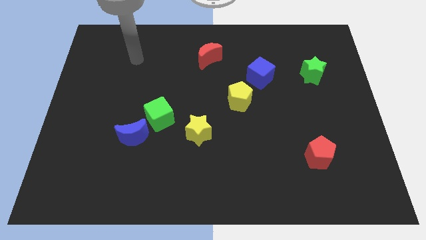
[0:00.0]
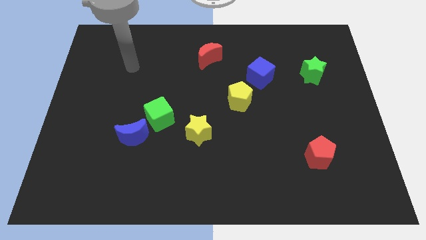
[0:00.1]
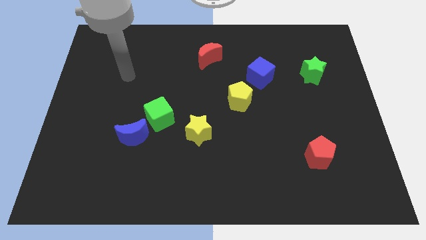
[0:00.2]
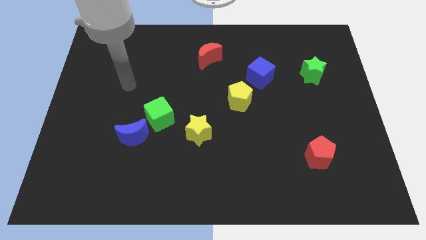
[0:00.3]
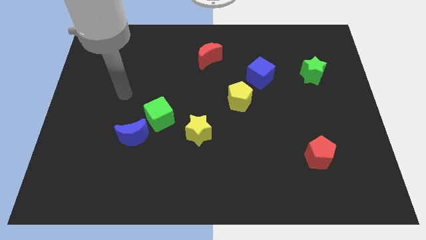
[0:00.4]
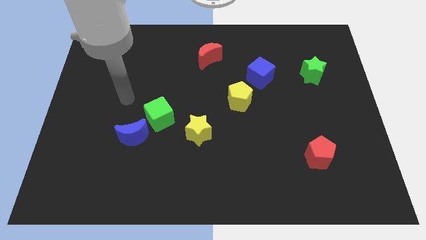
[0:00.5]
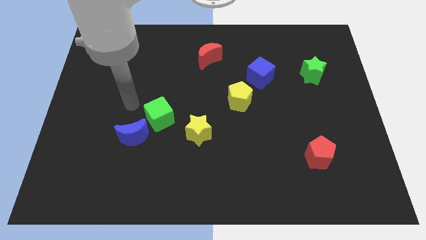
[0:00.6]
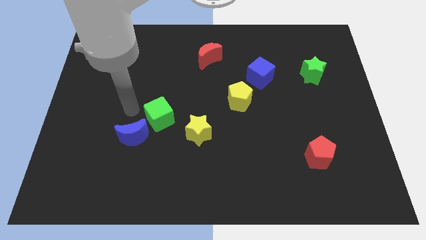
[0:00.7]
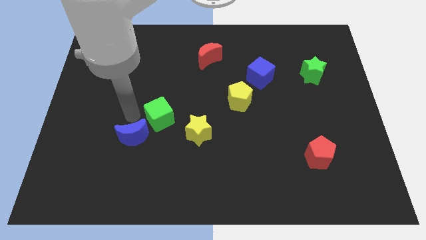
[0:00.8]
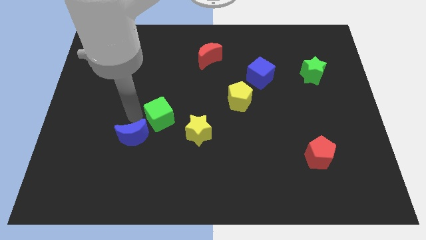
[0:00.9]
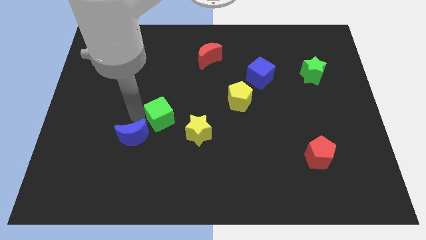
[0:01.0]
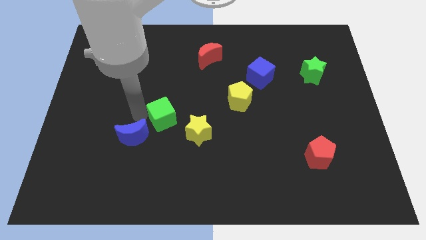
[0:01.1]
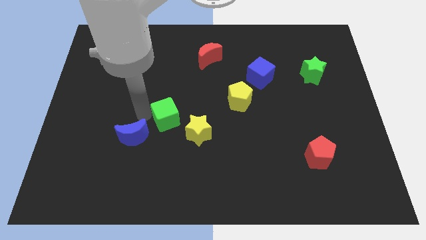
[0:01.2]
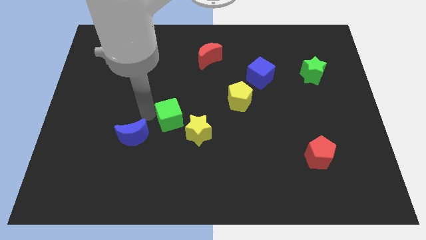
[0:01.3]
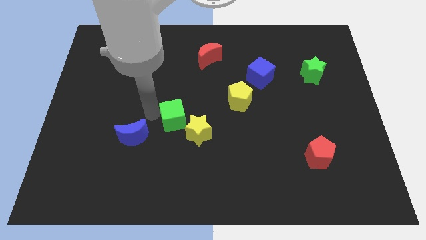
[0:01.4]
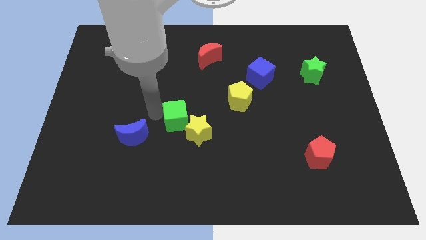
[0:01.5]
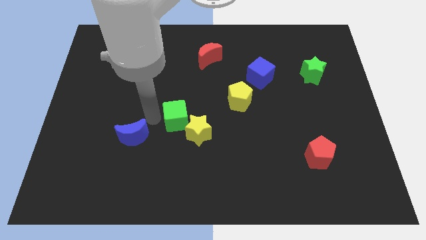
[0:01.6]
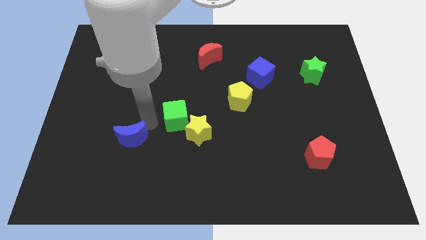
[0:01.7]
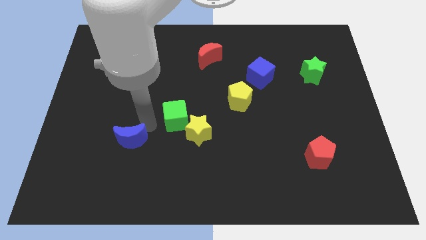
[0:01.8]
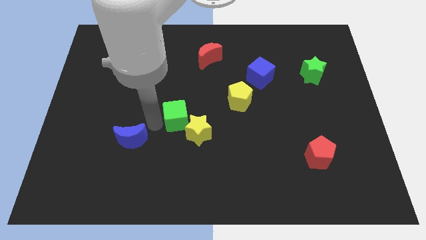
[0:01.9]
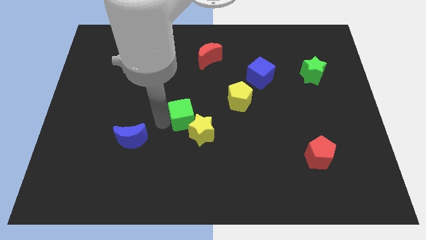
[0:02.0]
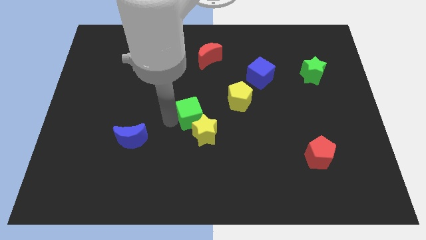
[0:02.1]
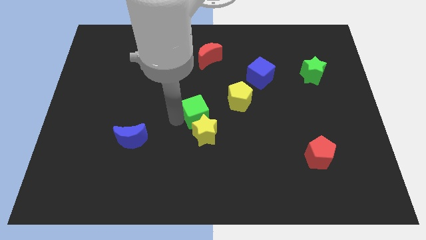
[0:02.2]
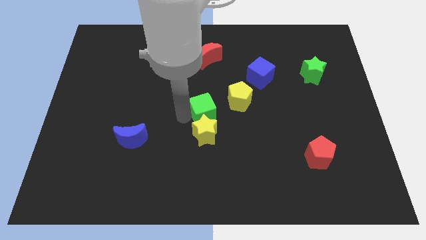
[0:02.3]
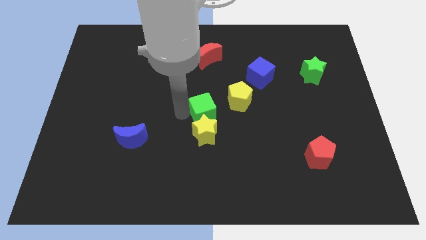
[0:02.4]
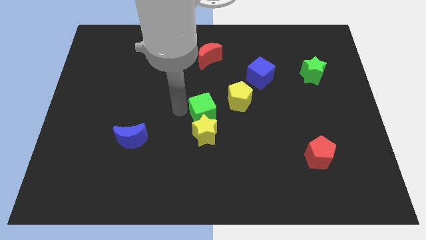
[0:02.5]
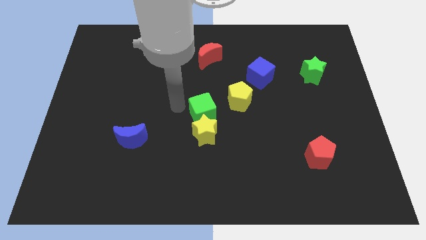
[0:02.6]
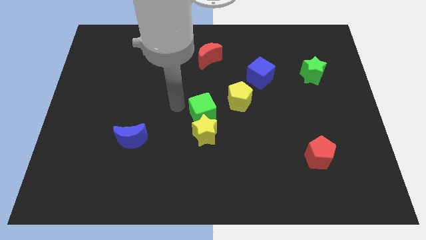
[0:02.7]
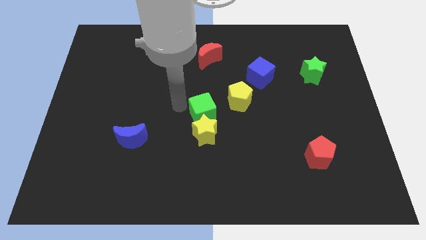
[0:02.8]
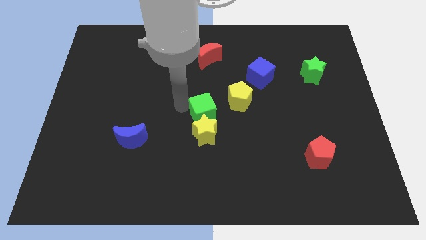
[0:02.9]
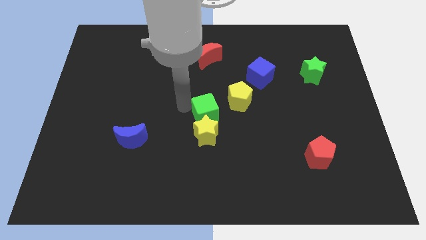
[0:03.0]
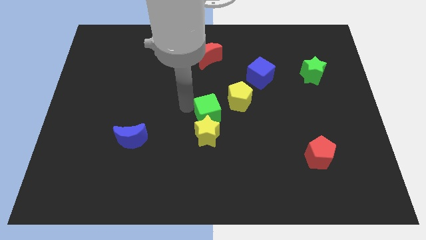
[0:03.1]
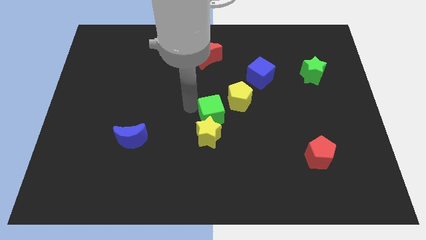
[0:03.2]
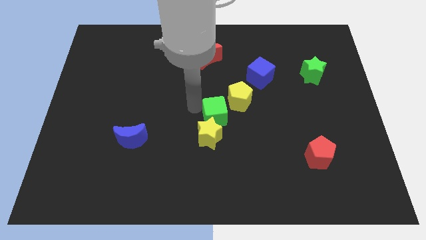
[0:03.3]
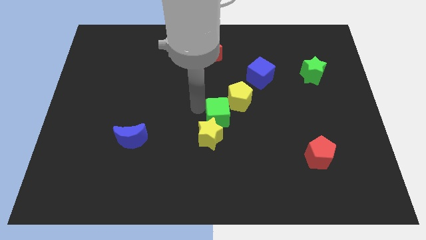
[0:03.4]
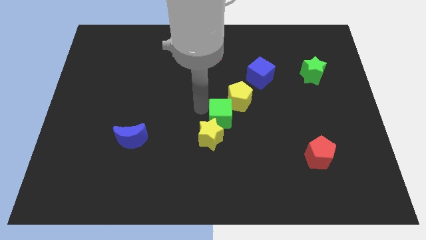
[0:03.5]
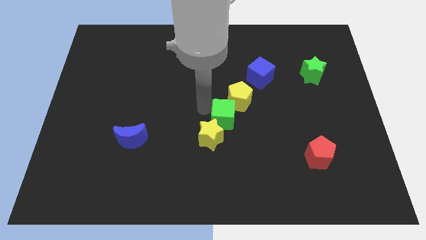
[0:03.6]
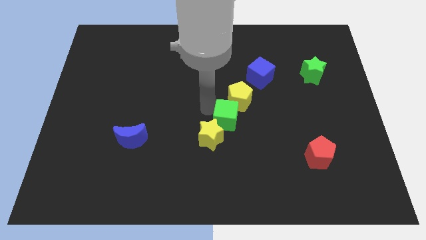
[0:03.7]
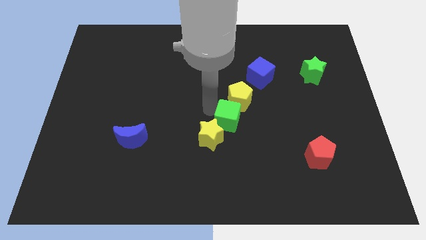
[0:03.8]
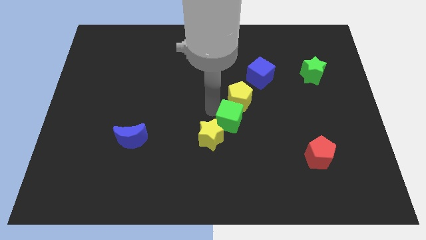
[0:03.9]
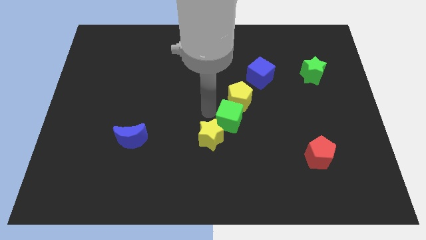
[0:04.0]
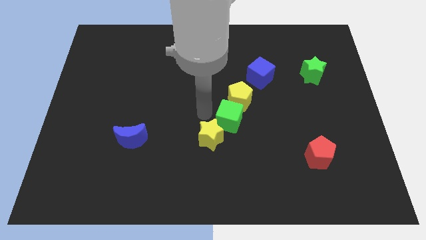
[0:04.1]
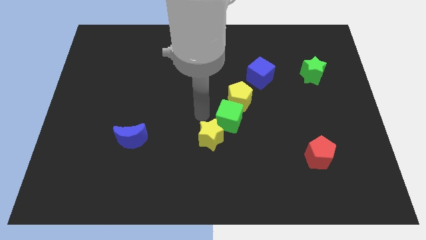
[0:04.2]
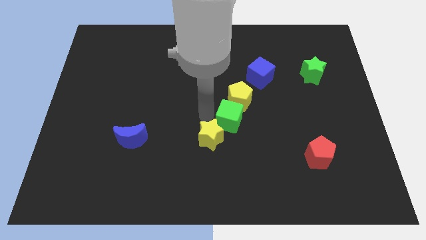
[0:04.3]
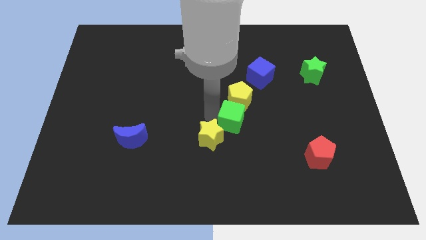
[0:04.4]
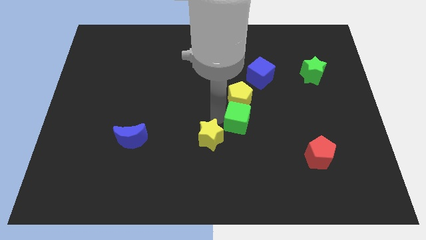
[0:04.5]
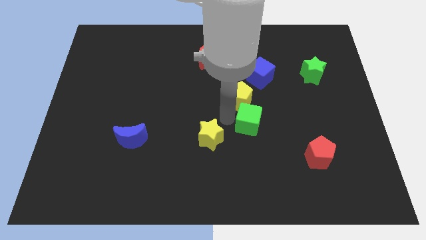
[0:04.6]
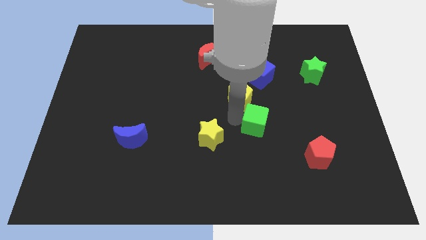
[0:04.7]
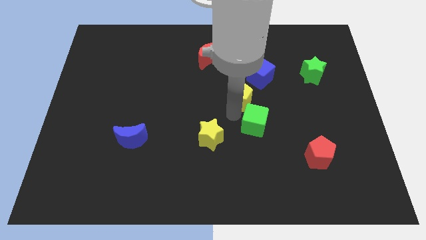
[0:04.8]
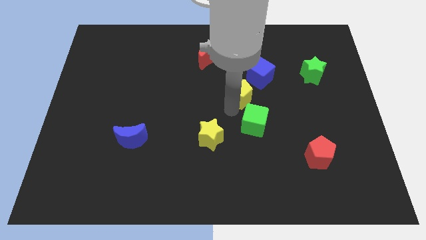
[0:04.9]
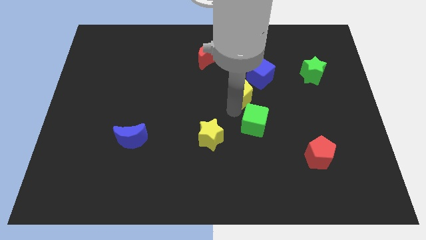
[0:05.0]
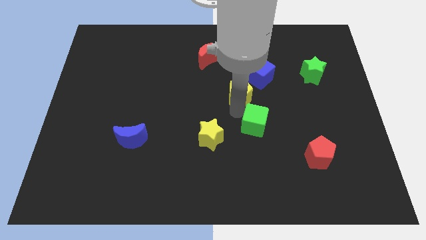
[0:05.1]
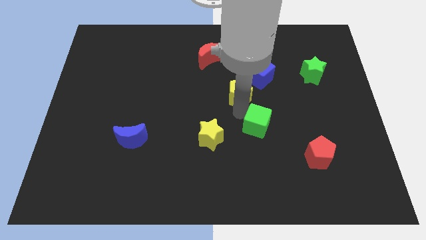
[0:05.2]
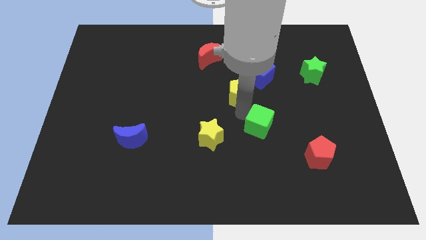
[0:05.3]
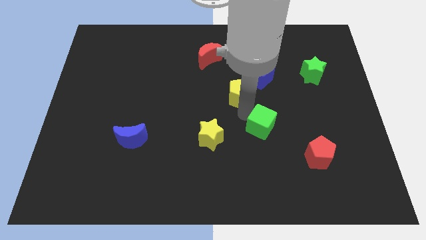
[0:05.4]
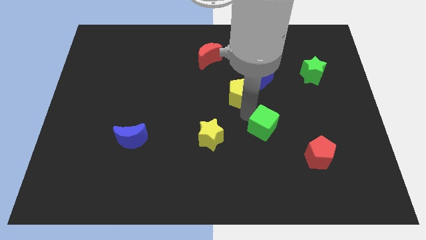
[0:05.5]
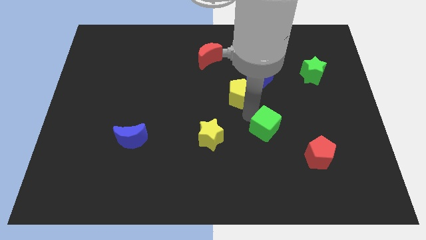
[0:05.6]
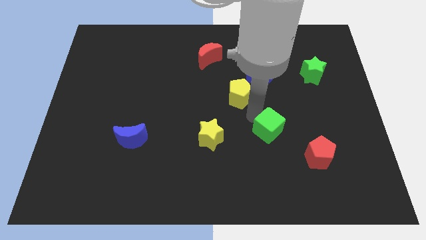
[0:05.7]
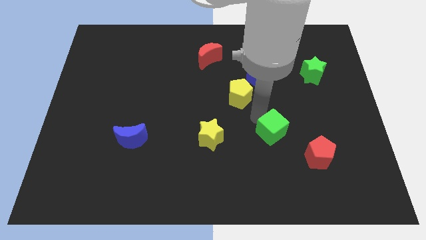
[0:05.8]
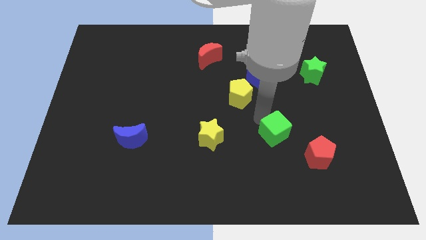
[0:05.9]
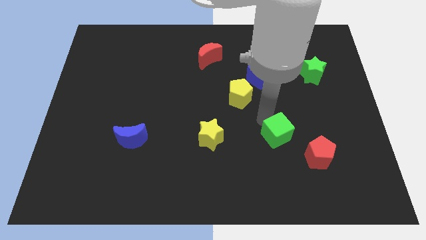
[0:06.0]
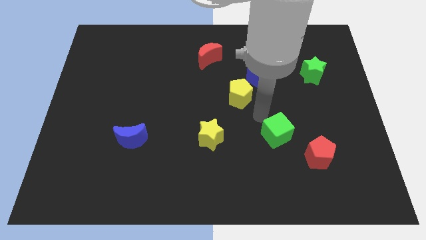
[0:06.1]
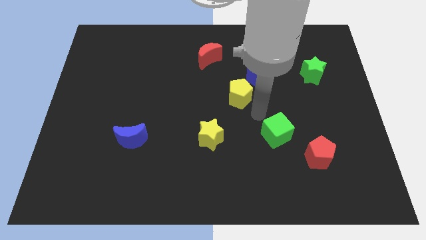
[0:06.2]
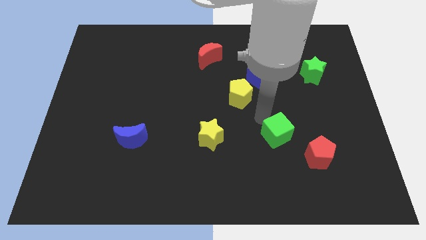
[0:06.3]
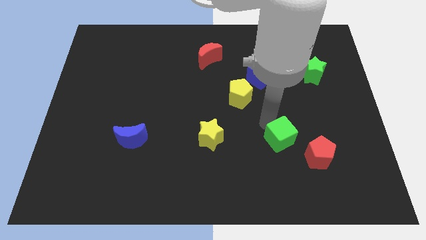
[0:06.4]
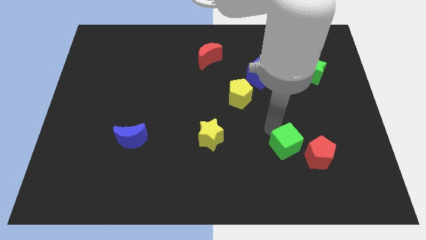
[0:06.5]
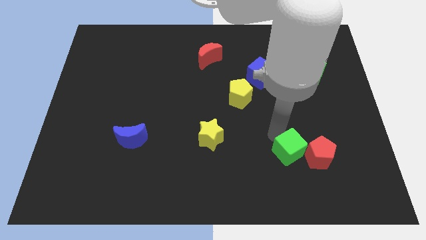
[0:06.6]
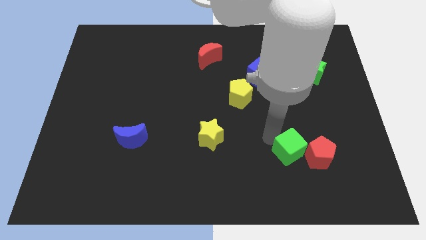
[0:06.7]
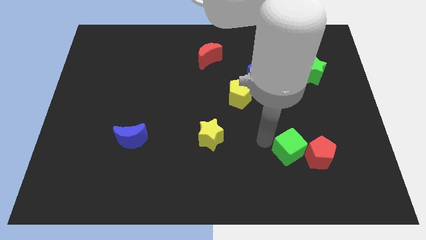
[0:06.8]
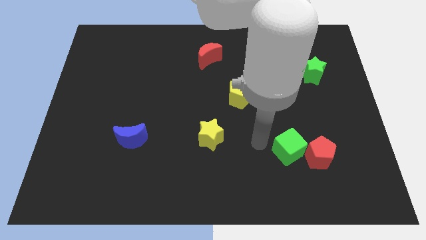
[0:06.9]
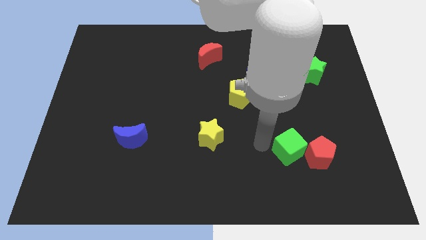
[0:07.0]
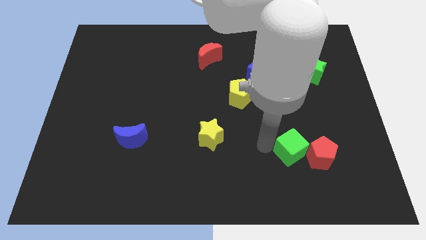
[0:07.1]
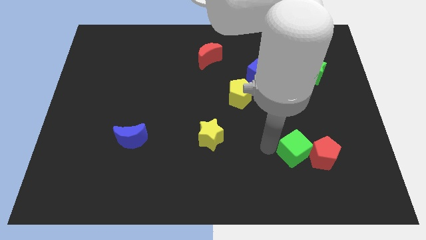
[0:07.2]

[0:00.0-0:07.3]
slide the green cube to the red pentagon
